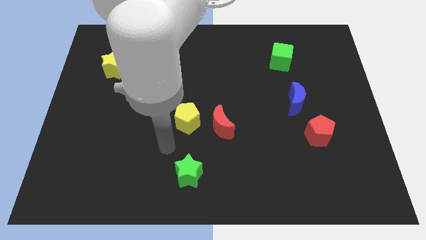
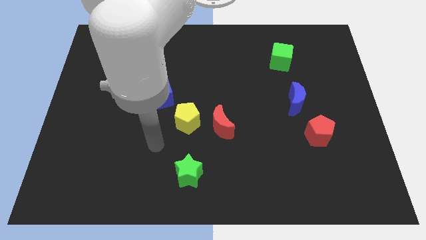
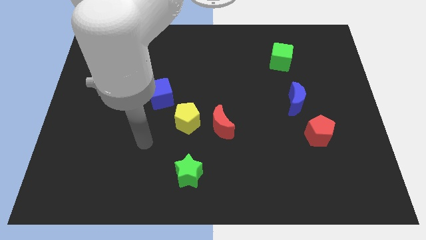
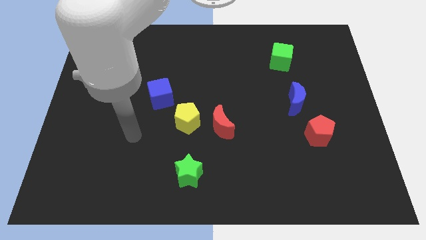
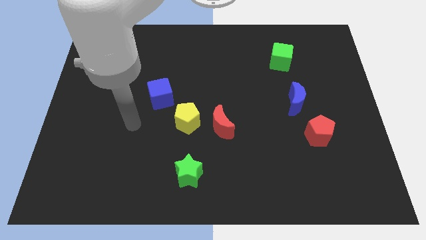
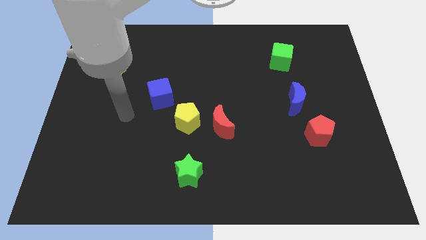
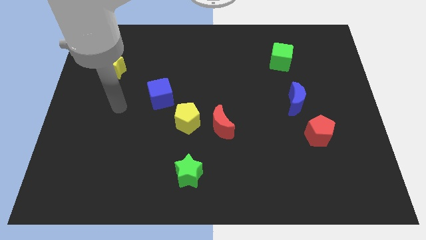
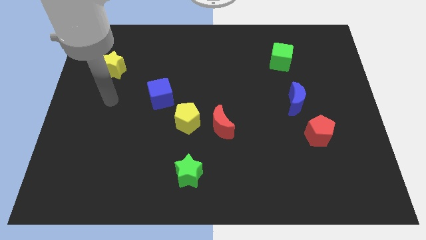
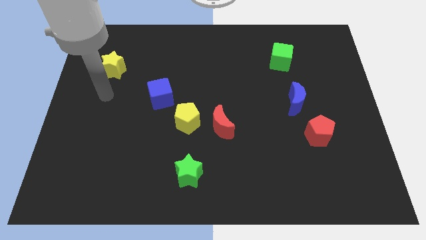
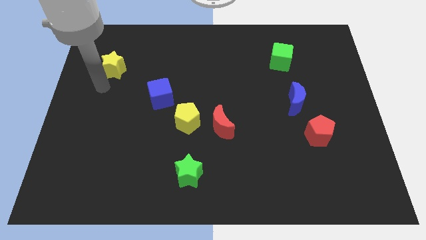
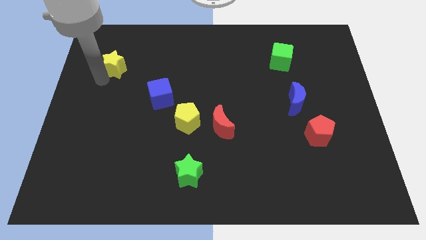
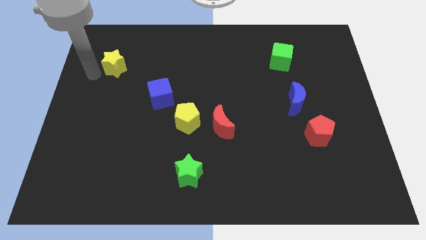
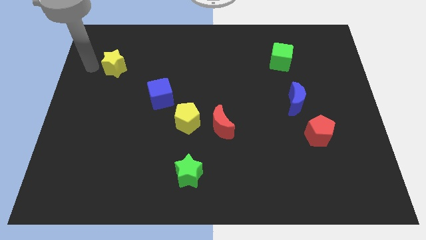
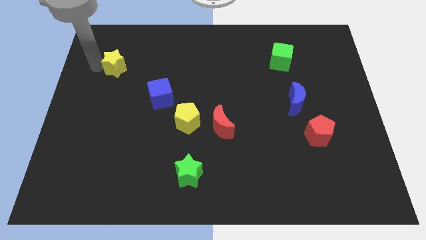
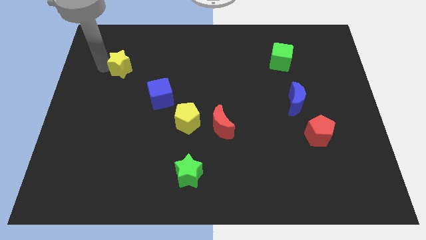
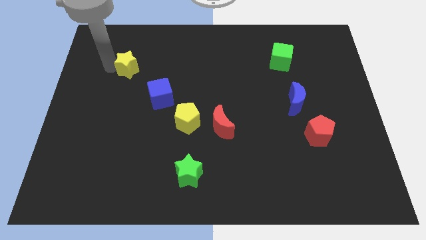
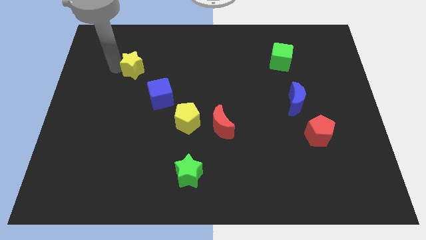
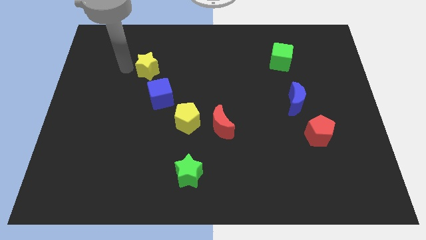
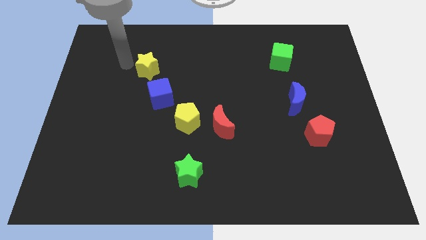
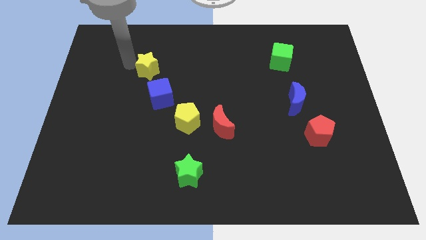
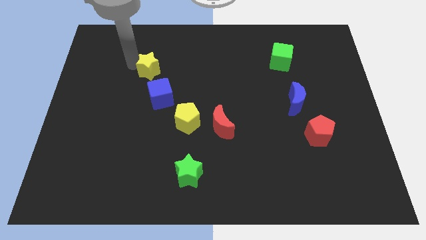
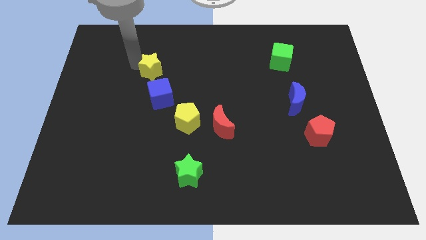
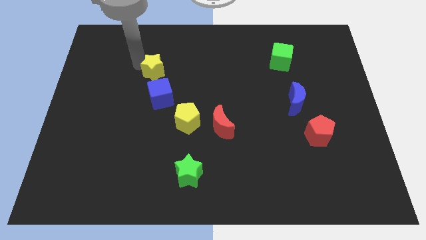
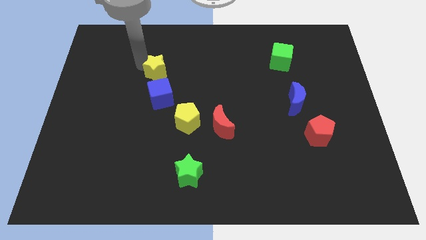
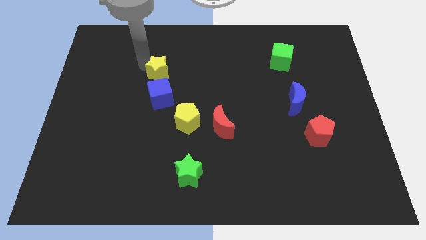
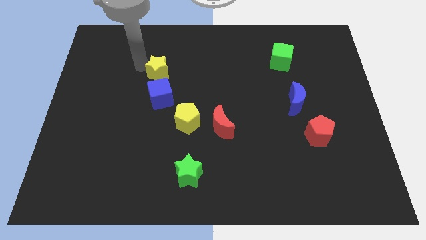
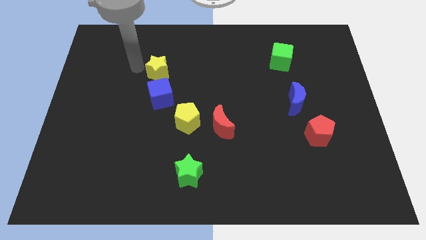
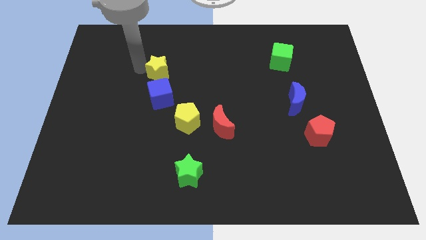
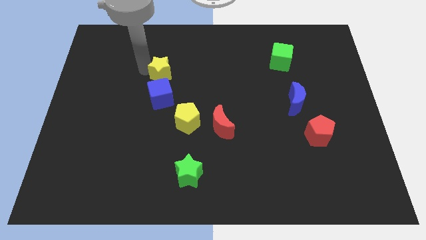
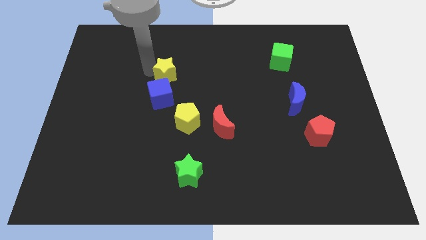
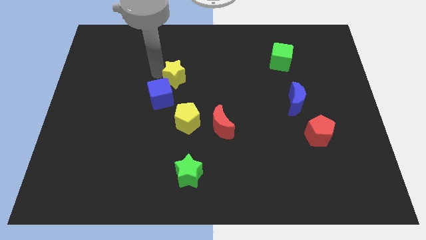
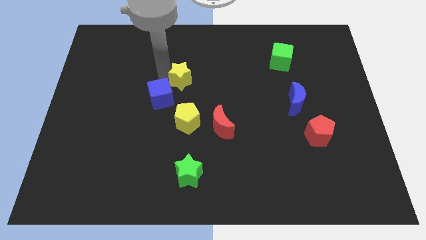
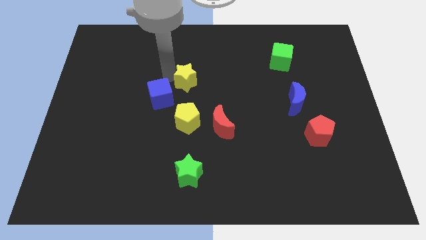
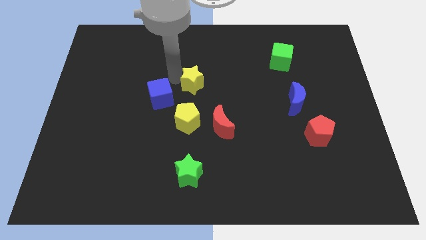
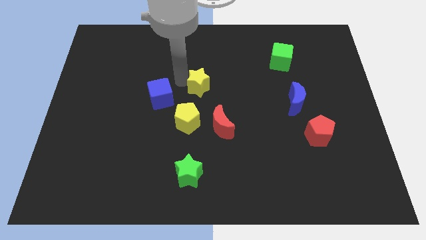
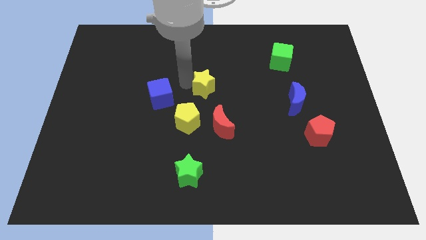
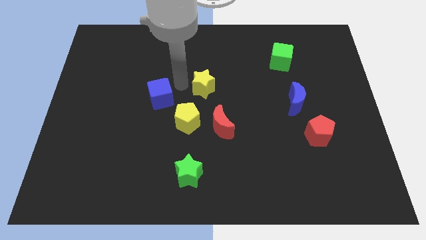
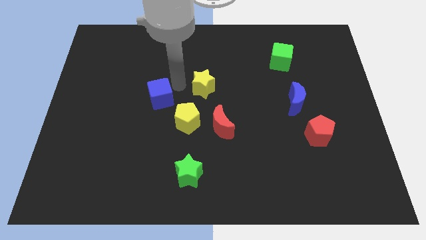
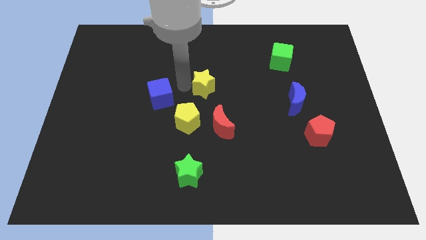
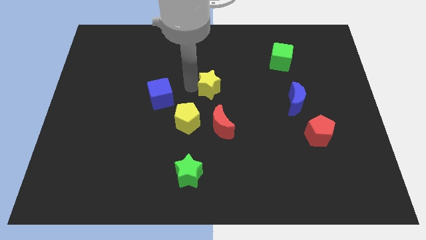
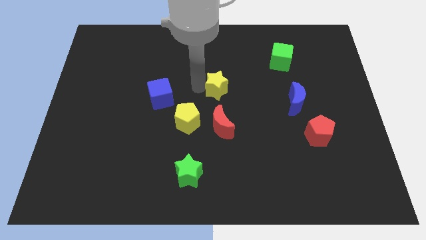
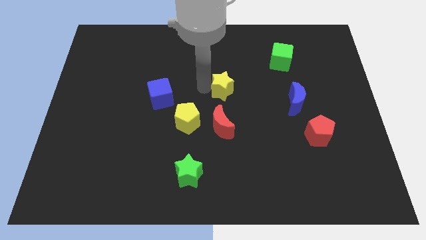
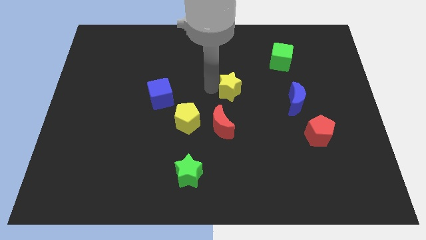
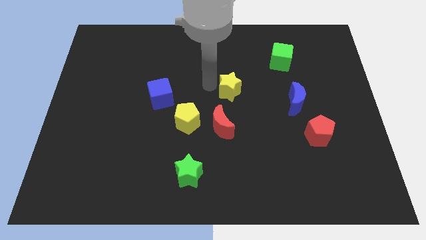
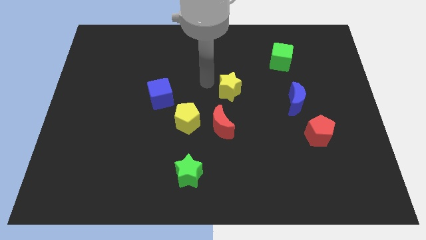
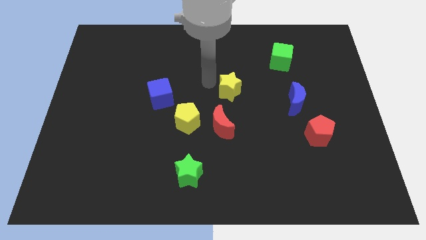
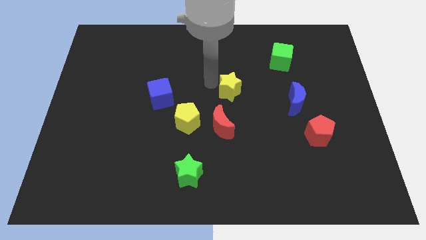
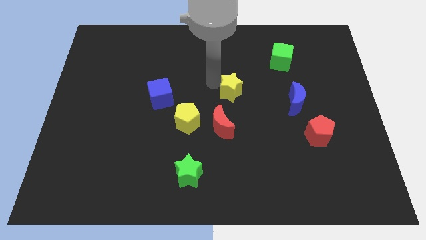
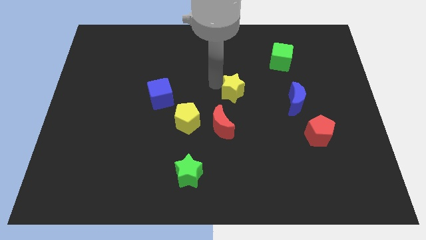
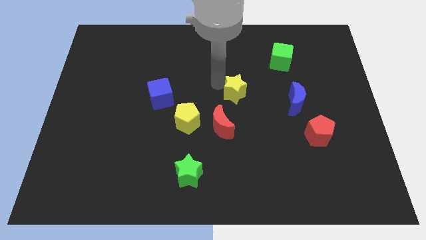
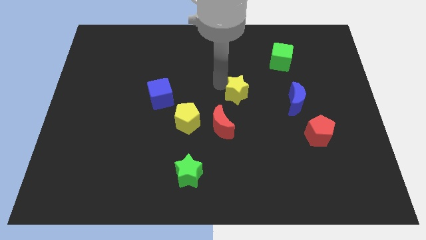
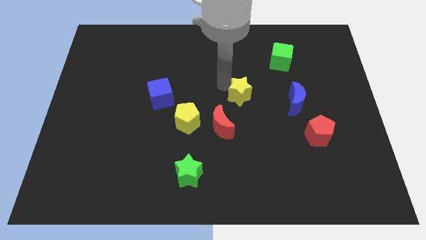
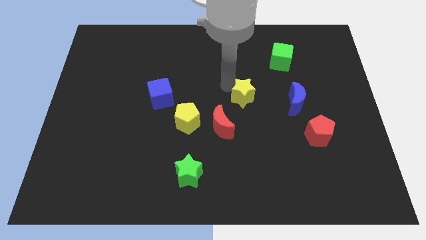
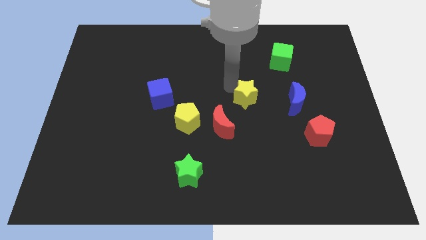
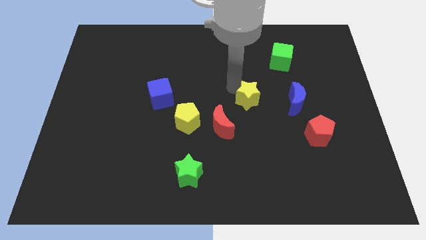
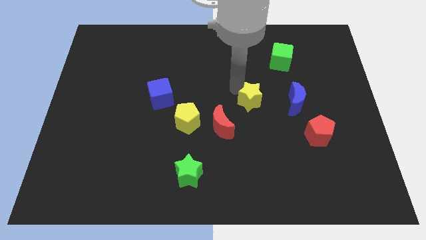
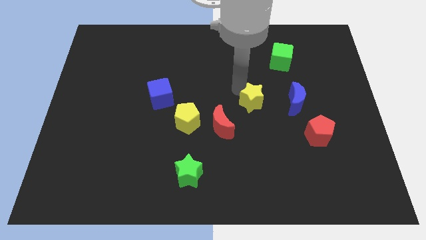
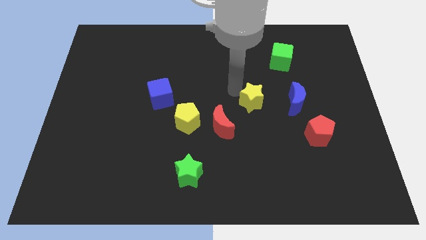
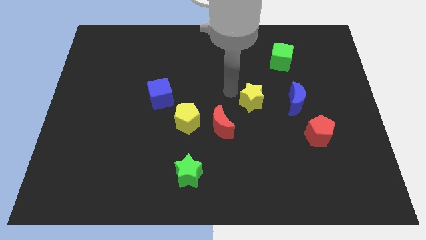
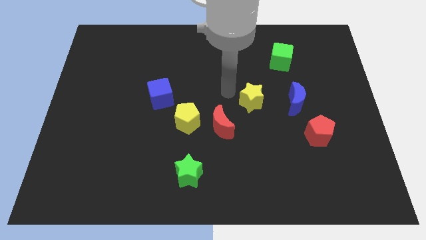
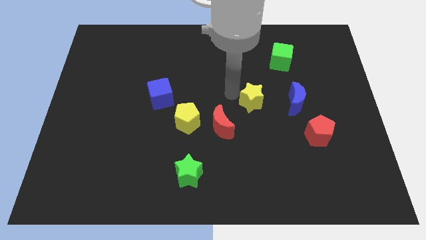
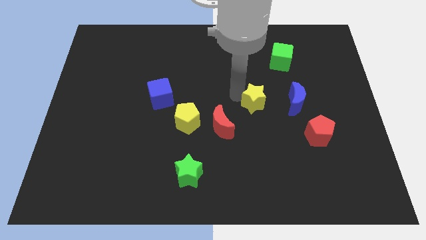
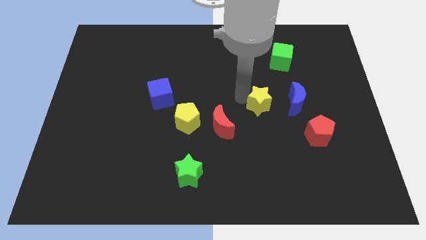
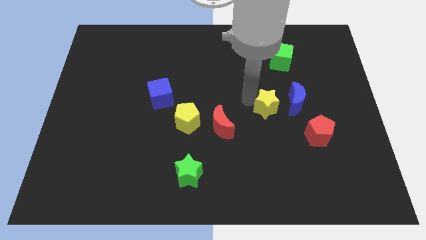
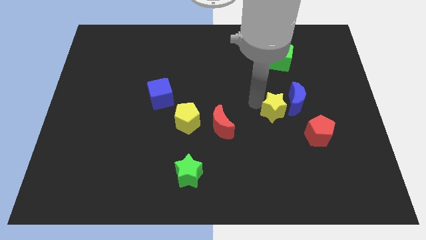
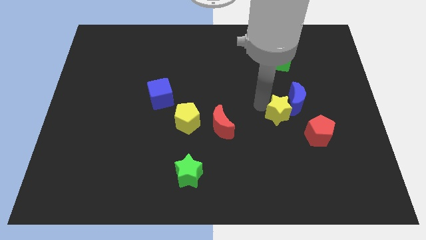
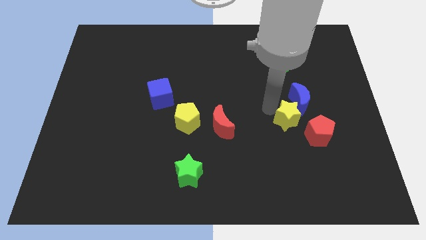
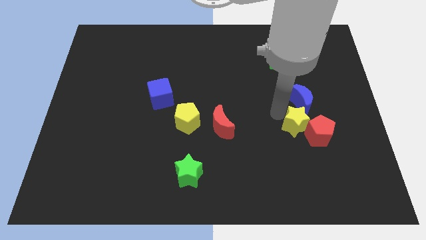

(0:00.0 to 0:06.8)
put the yellow star towards the red pentagon
